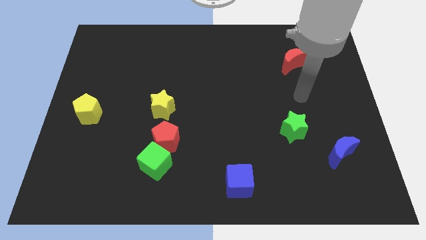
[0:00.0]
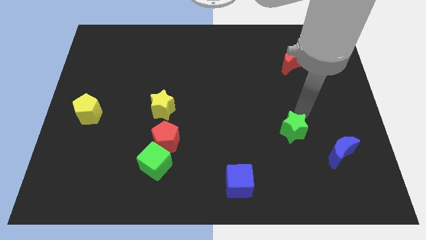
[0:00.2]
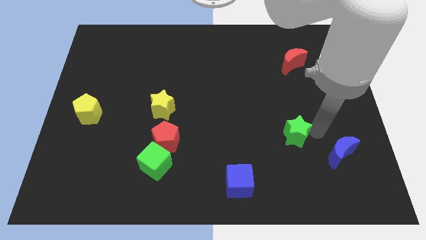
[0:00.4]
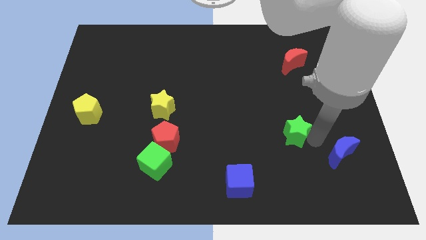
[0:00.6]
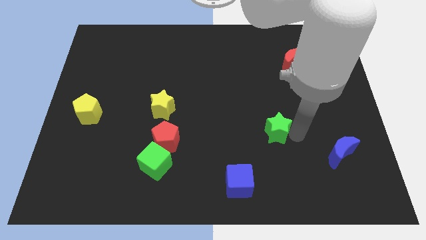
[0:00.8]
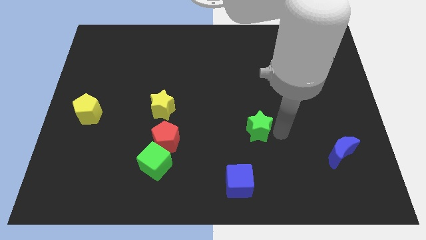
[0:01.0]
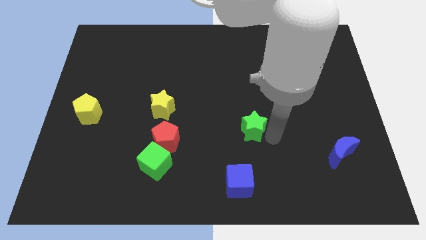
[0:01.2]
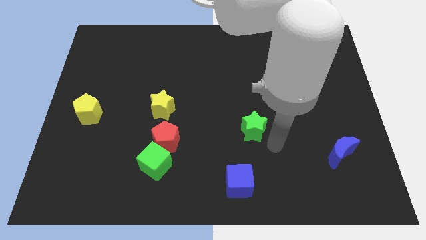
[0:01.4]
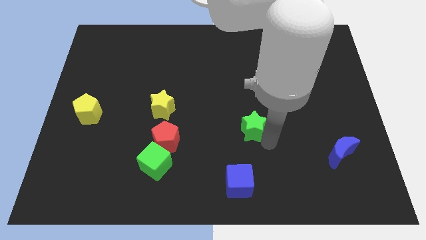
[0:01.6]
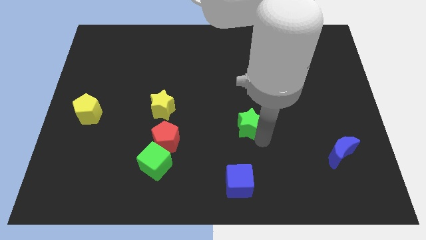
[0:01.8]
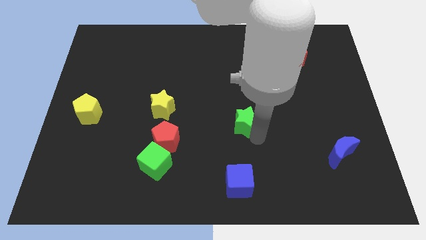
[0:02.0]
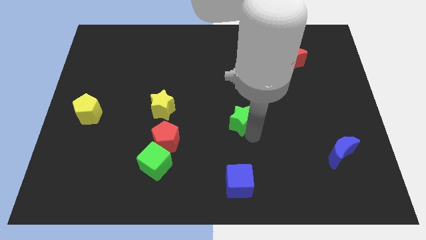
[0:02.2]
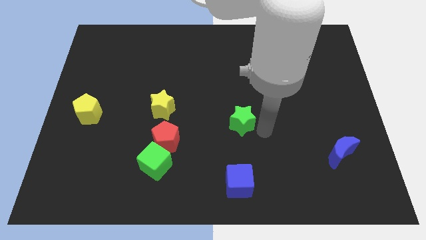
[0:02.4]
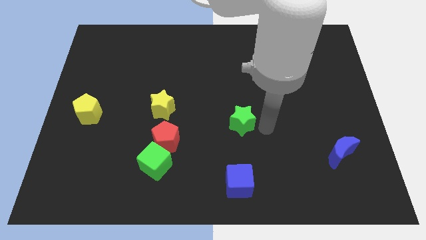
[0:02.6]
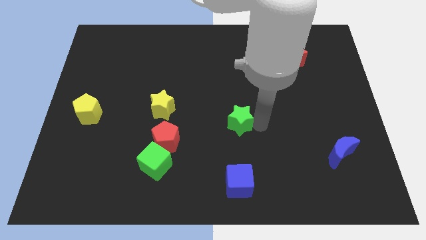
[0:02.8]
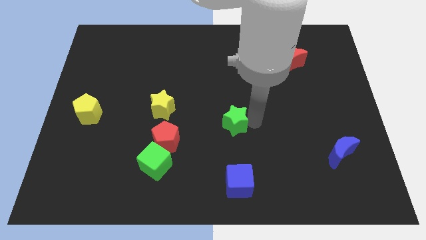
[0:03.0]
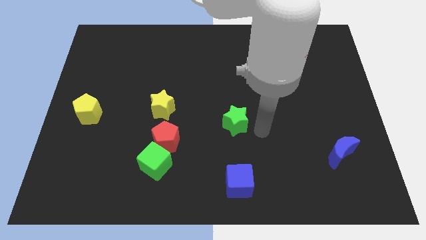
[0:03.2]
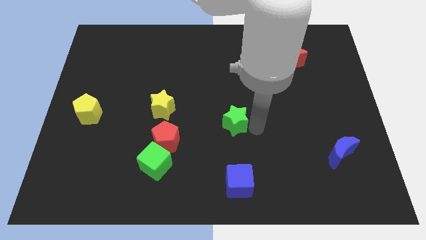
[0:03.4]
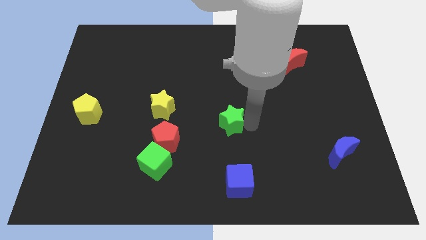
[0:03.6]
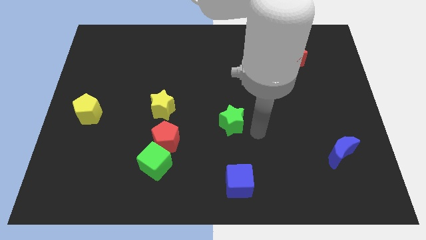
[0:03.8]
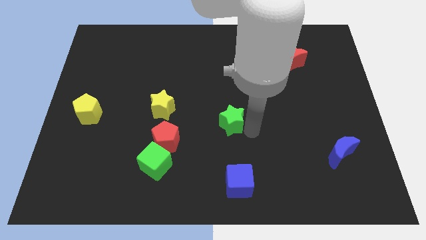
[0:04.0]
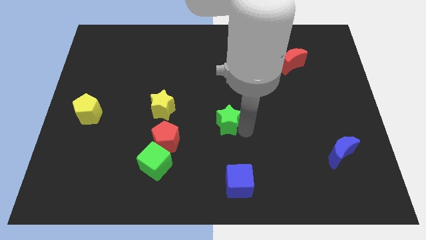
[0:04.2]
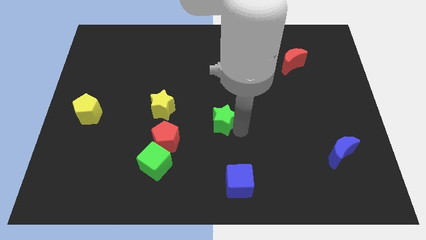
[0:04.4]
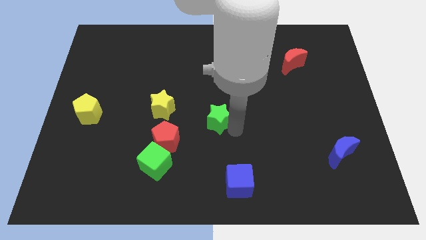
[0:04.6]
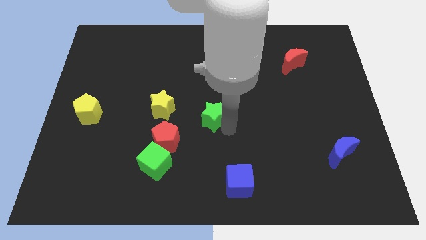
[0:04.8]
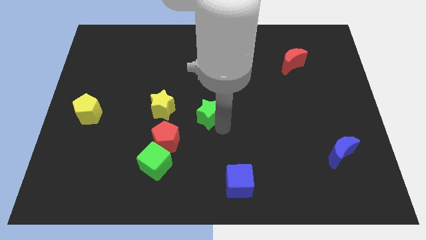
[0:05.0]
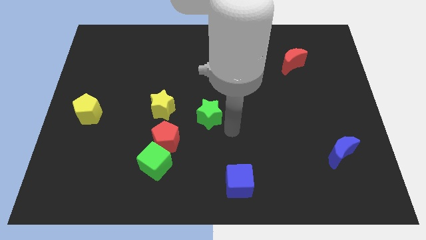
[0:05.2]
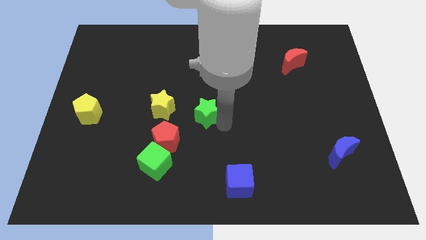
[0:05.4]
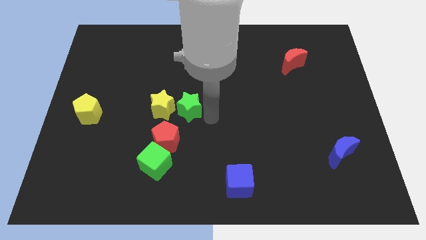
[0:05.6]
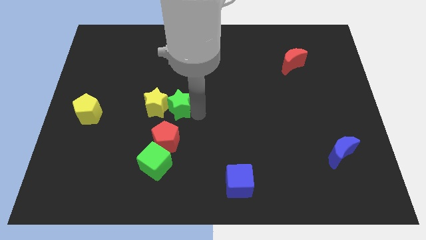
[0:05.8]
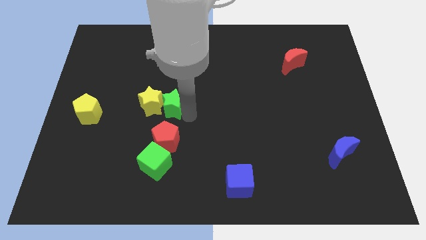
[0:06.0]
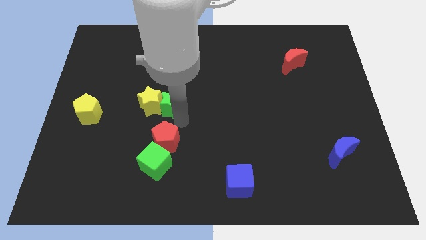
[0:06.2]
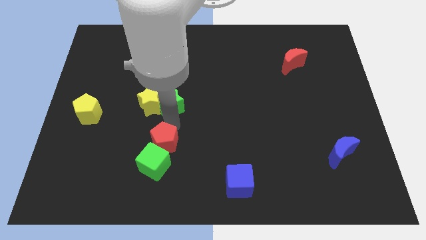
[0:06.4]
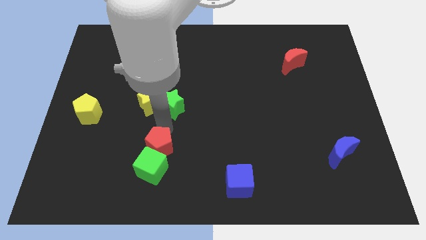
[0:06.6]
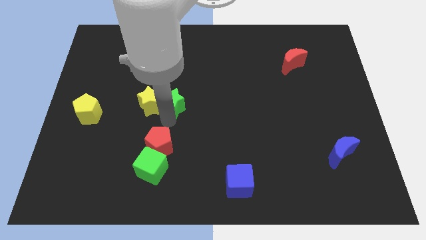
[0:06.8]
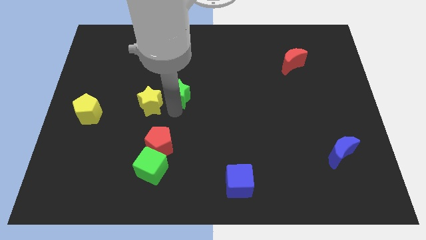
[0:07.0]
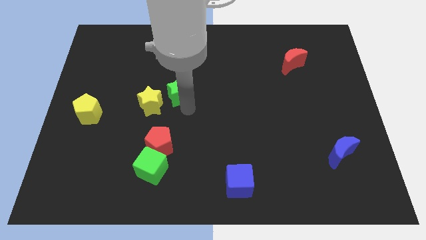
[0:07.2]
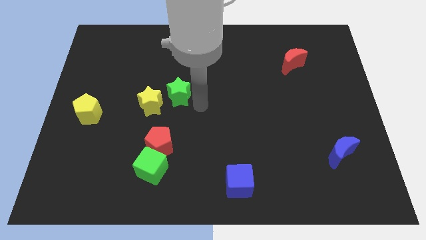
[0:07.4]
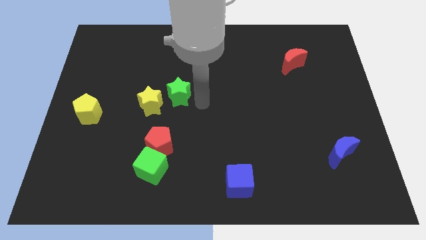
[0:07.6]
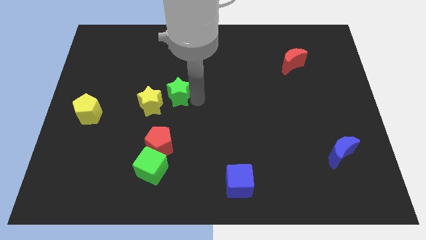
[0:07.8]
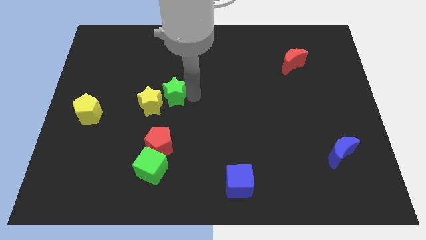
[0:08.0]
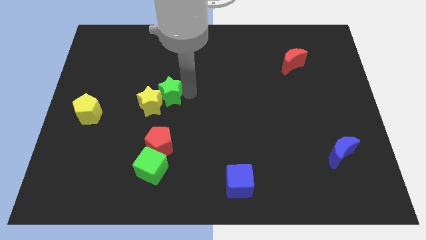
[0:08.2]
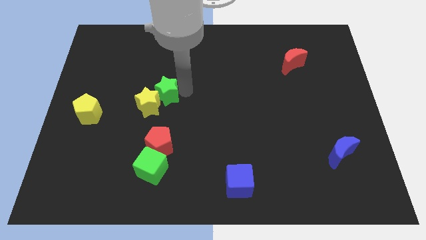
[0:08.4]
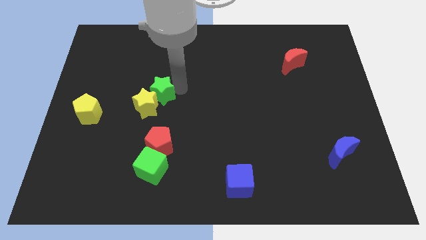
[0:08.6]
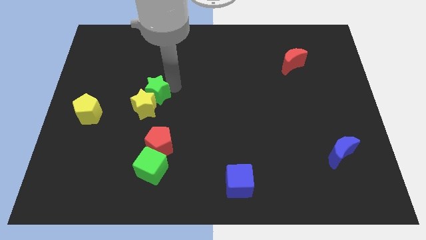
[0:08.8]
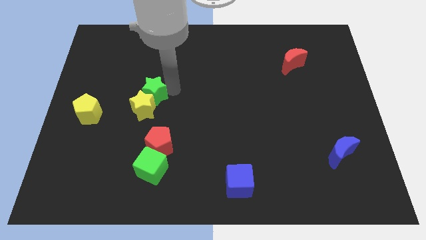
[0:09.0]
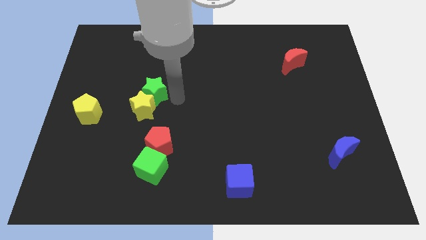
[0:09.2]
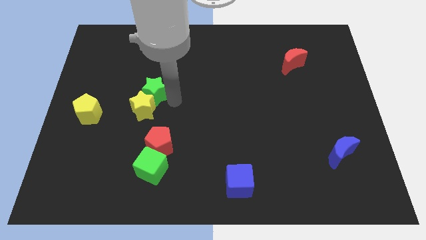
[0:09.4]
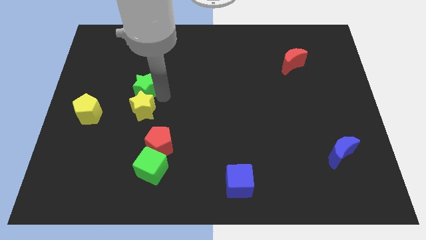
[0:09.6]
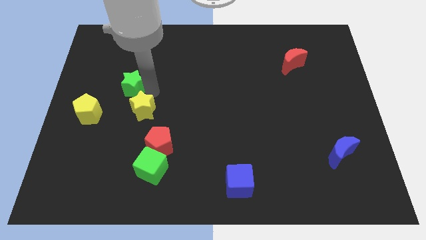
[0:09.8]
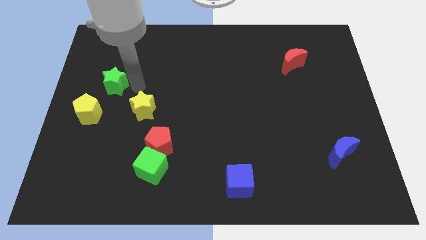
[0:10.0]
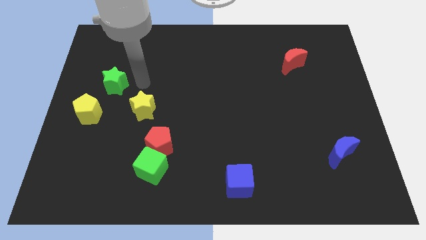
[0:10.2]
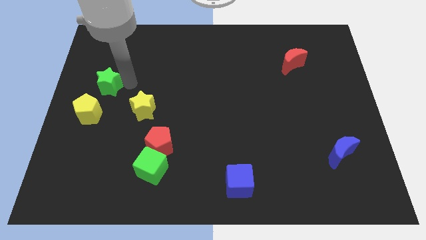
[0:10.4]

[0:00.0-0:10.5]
move the green star to the center left
